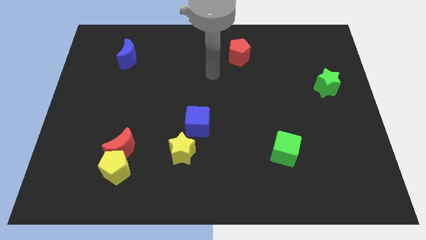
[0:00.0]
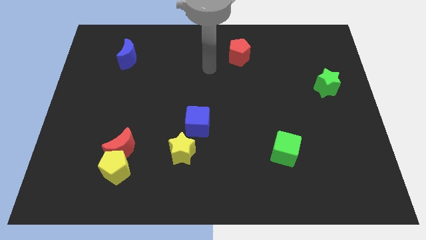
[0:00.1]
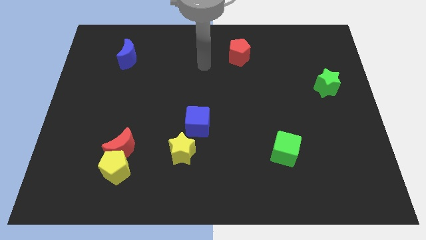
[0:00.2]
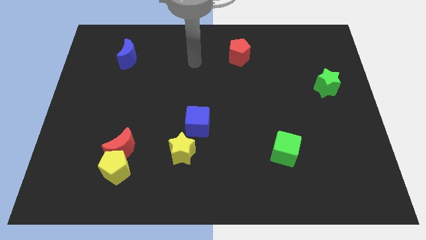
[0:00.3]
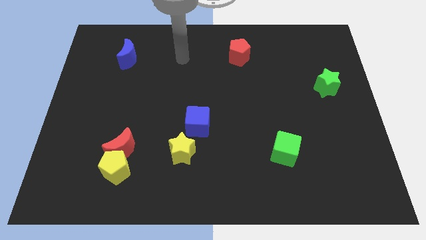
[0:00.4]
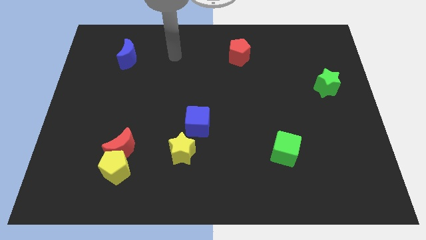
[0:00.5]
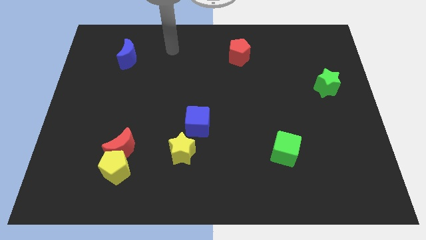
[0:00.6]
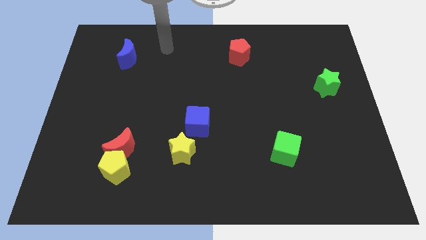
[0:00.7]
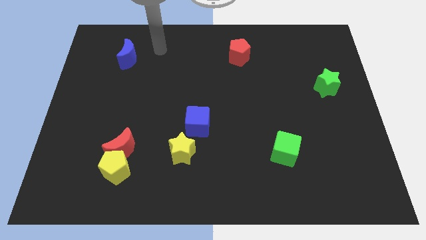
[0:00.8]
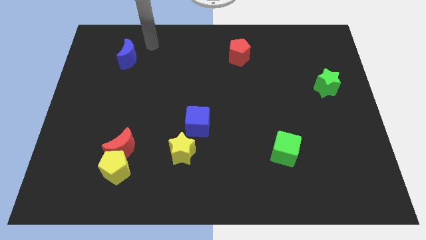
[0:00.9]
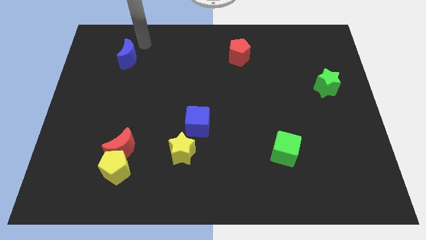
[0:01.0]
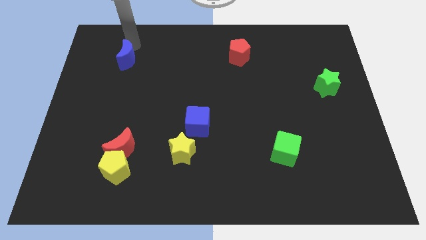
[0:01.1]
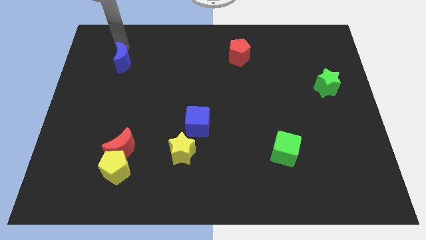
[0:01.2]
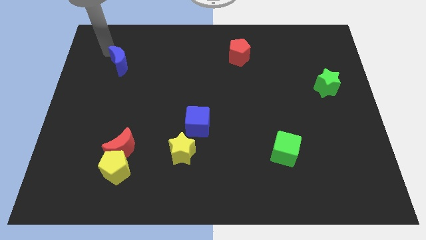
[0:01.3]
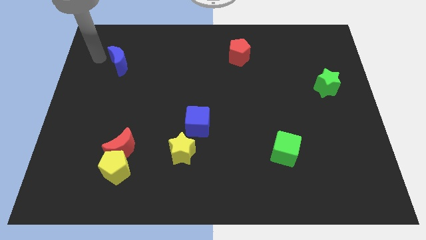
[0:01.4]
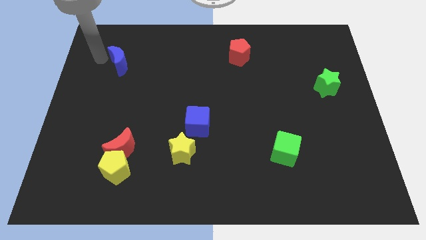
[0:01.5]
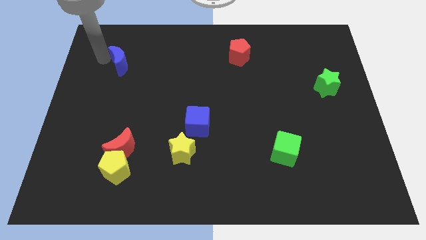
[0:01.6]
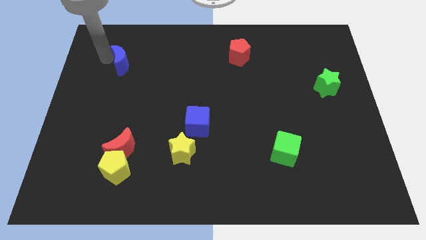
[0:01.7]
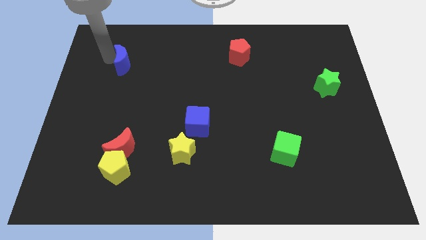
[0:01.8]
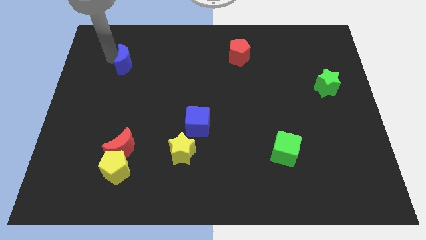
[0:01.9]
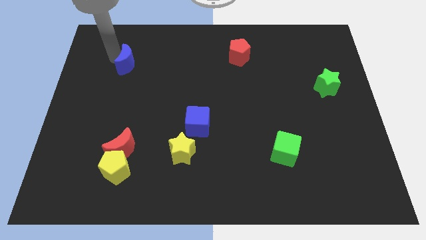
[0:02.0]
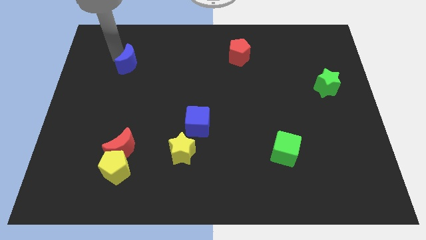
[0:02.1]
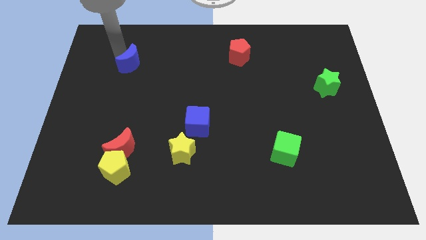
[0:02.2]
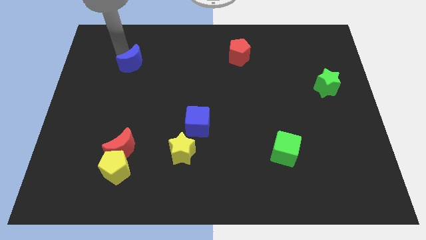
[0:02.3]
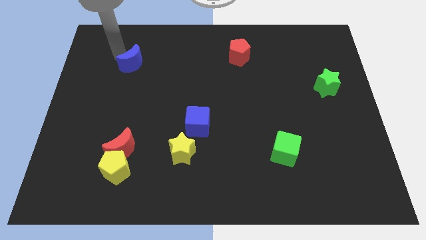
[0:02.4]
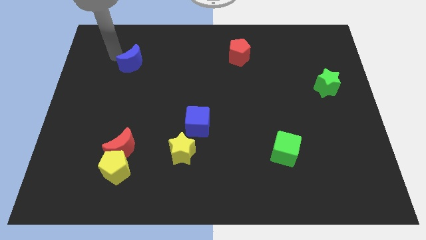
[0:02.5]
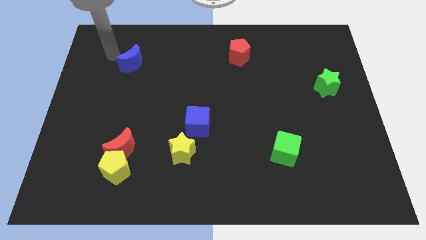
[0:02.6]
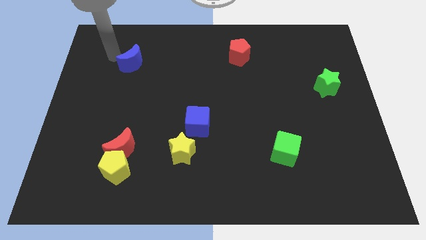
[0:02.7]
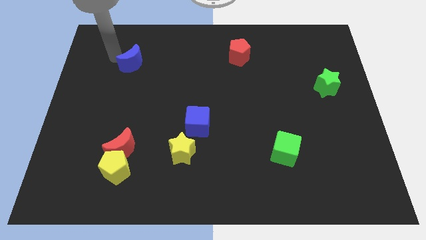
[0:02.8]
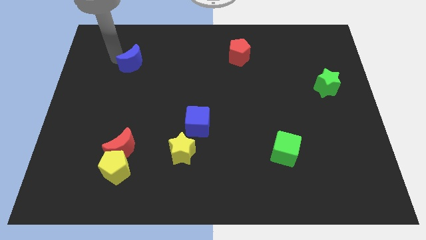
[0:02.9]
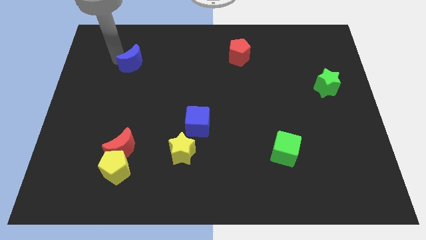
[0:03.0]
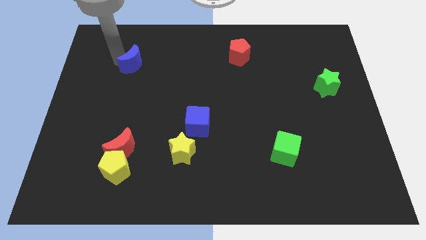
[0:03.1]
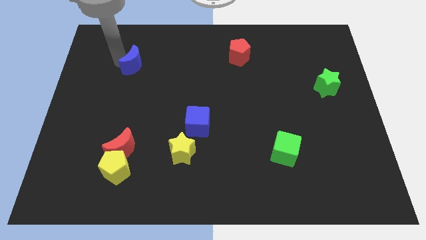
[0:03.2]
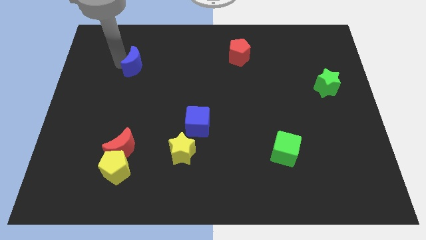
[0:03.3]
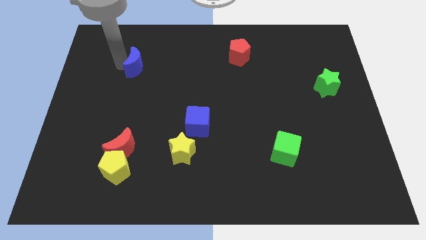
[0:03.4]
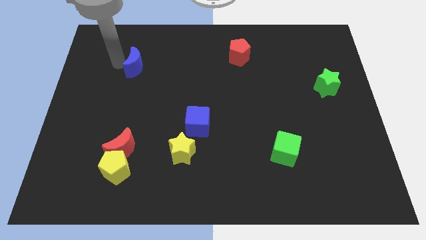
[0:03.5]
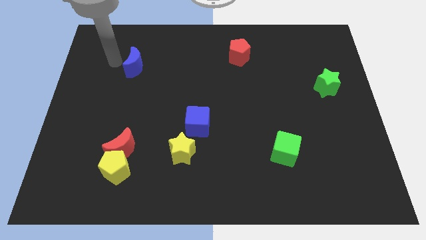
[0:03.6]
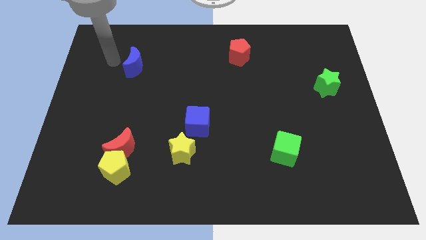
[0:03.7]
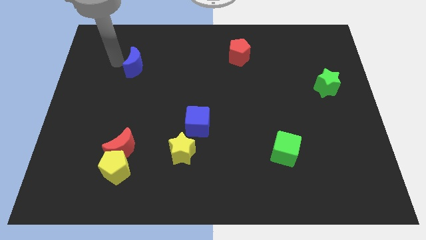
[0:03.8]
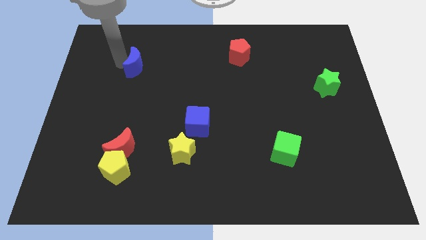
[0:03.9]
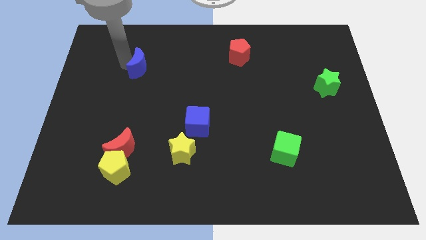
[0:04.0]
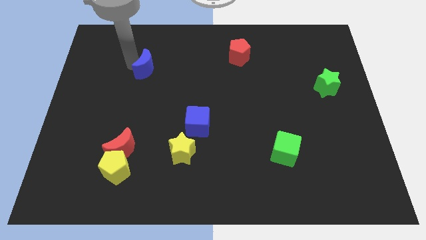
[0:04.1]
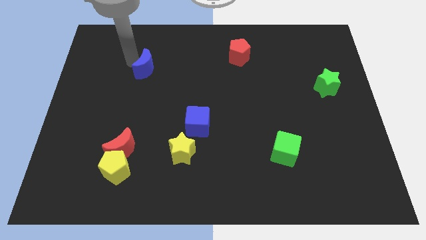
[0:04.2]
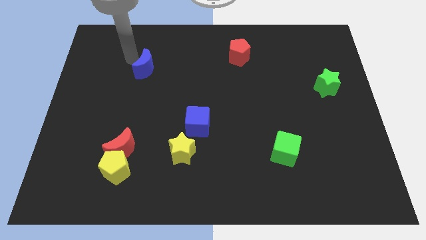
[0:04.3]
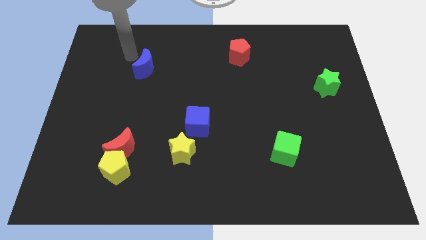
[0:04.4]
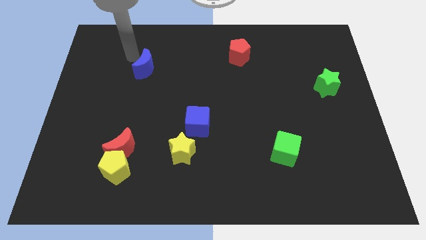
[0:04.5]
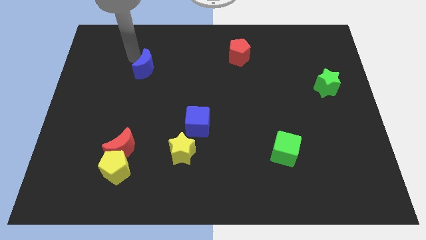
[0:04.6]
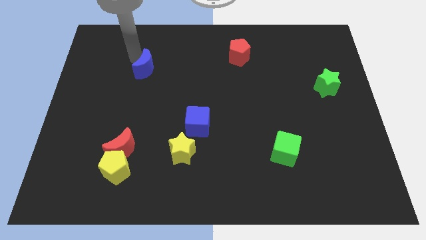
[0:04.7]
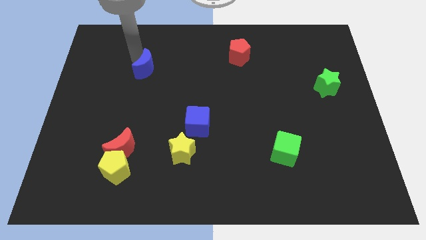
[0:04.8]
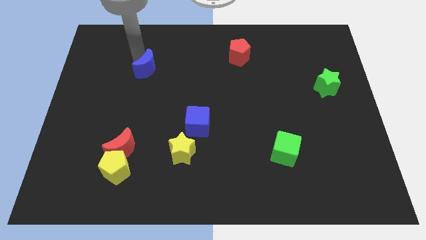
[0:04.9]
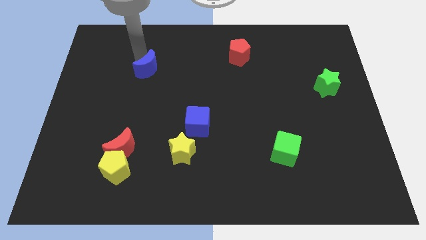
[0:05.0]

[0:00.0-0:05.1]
slide the blue moon a bit downwards and then right

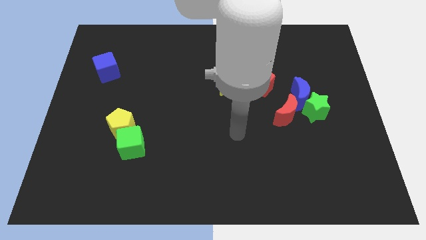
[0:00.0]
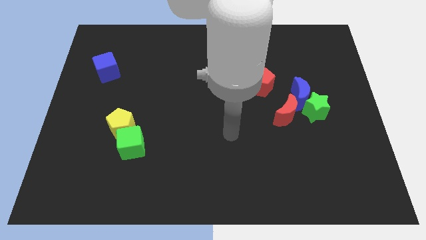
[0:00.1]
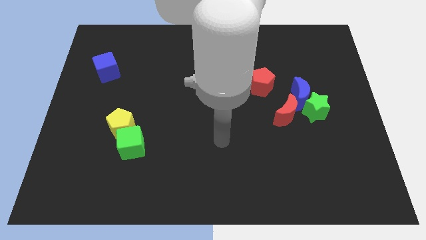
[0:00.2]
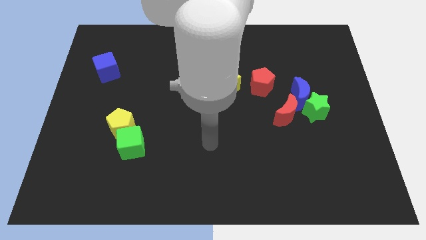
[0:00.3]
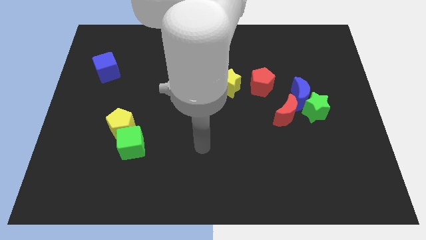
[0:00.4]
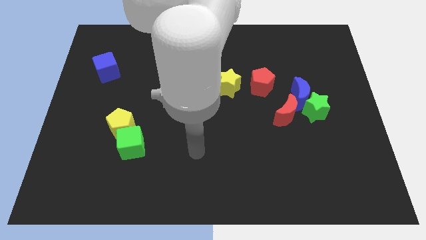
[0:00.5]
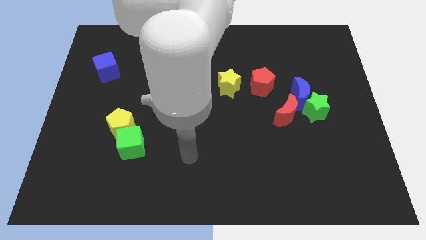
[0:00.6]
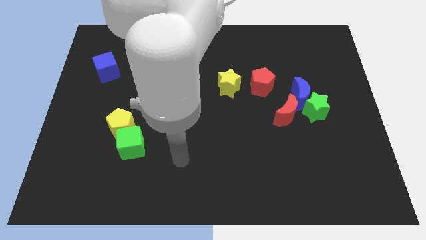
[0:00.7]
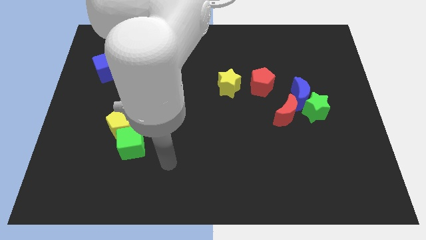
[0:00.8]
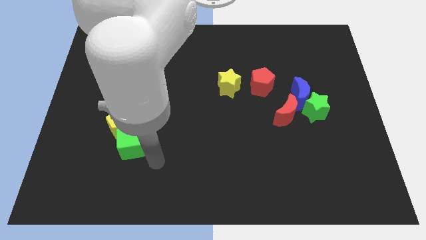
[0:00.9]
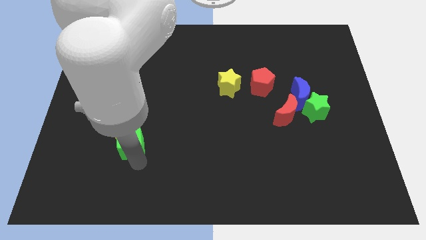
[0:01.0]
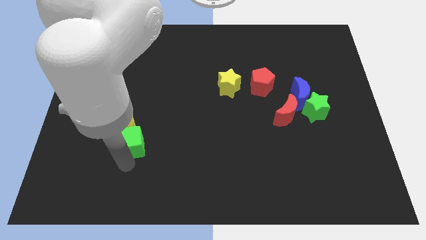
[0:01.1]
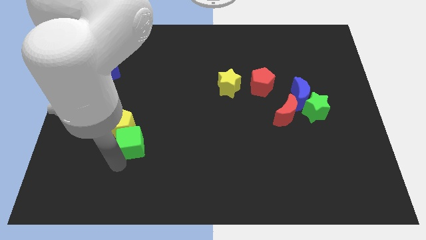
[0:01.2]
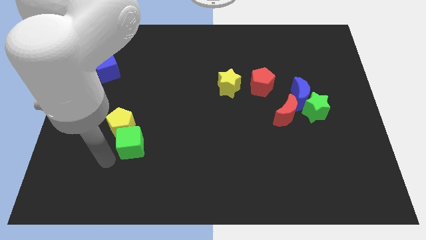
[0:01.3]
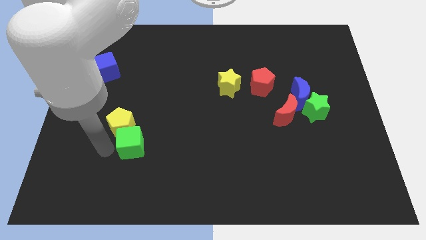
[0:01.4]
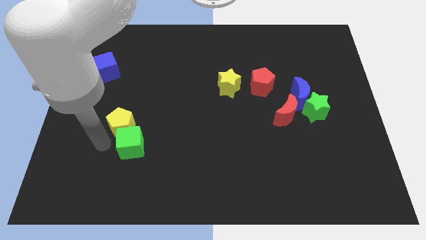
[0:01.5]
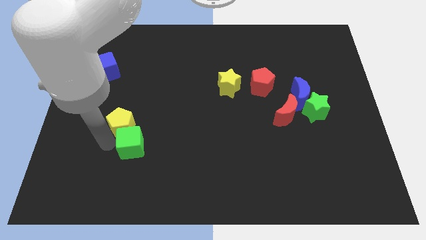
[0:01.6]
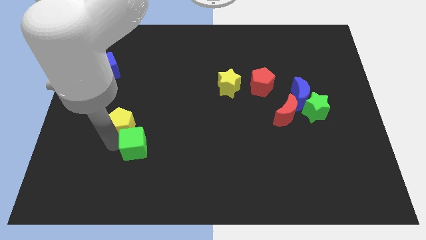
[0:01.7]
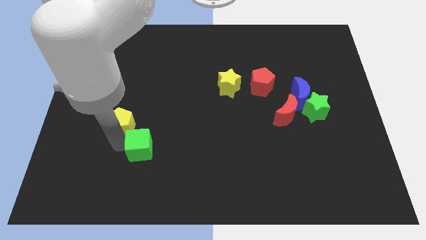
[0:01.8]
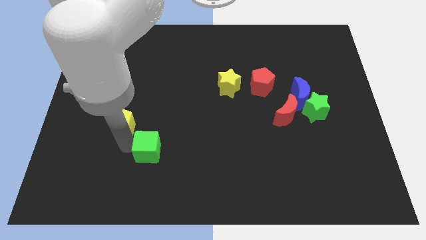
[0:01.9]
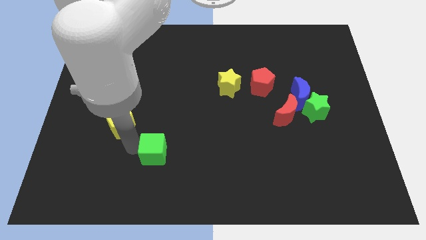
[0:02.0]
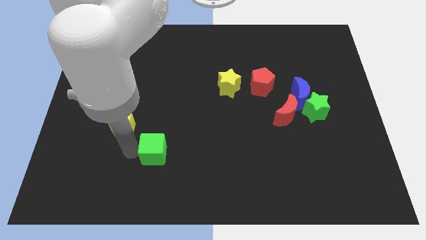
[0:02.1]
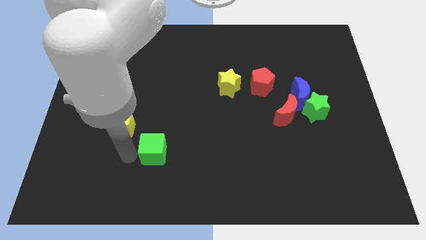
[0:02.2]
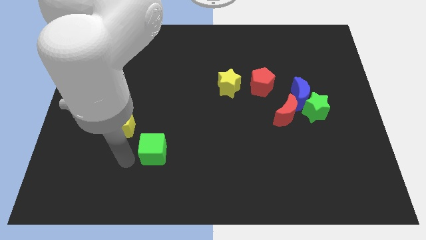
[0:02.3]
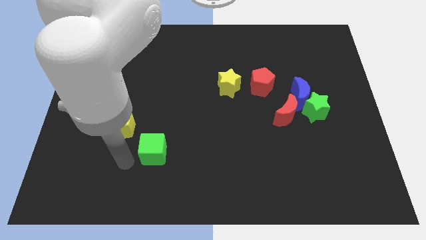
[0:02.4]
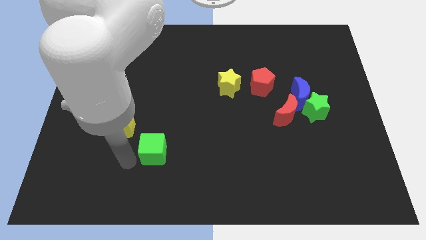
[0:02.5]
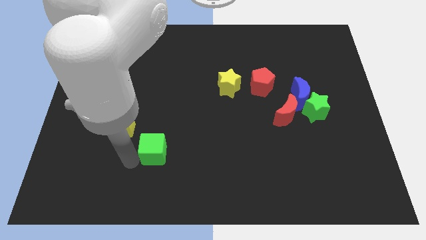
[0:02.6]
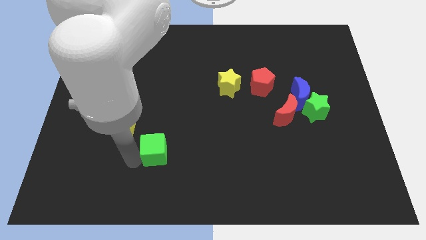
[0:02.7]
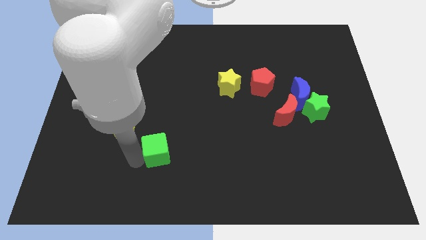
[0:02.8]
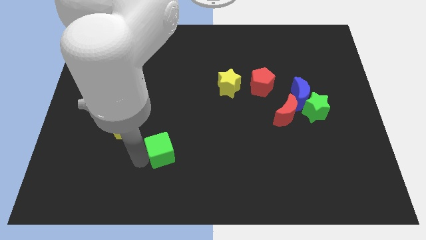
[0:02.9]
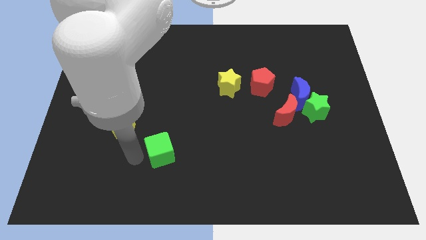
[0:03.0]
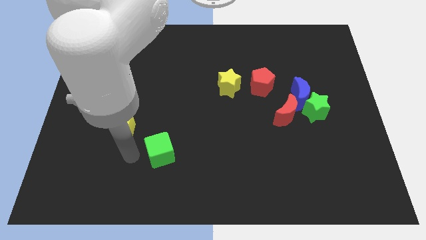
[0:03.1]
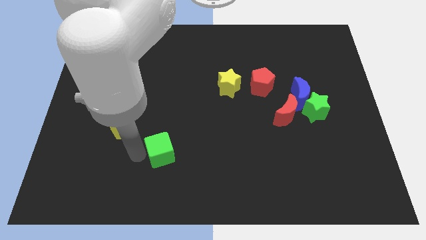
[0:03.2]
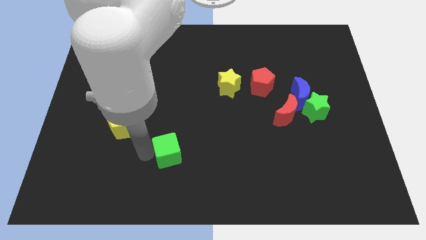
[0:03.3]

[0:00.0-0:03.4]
slightly slide the green cube right
